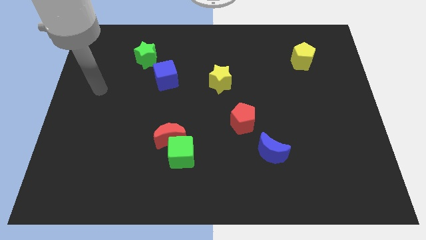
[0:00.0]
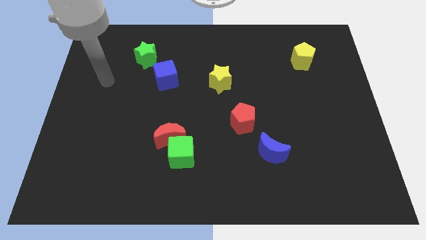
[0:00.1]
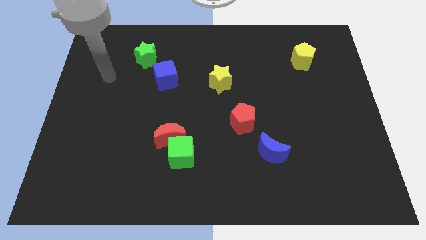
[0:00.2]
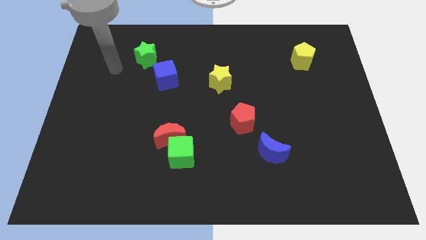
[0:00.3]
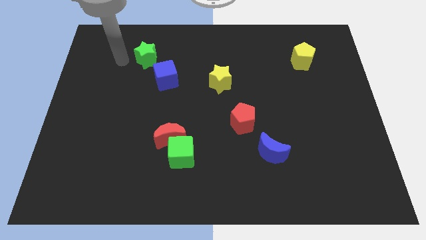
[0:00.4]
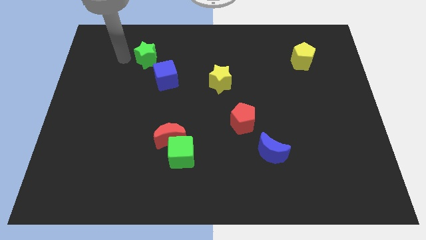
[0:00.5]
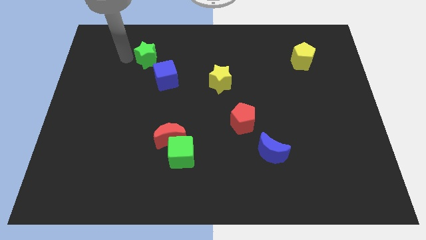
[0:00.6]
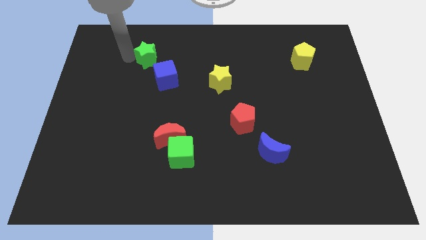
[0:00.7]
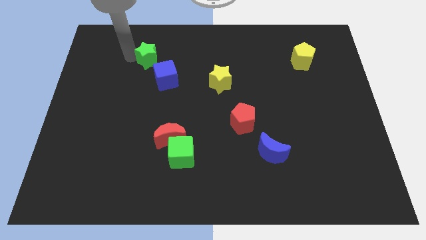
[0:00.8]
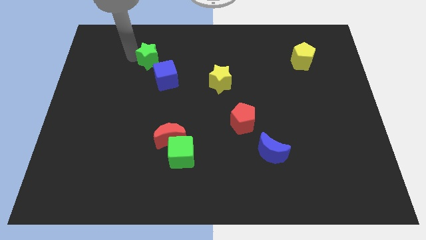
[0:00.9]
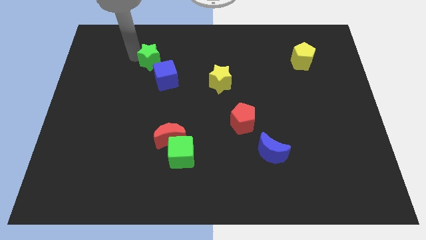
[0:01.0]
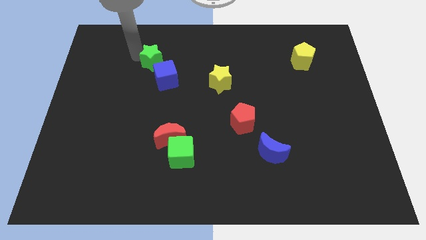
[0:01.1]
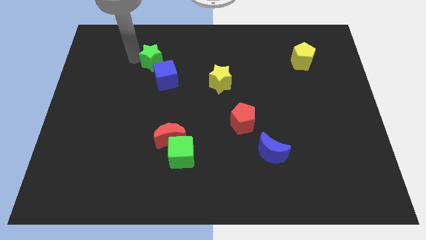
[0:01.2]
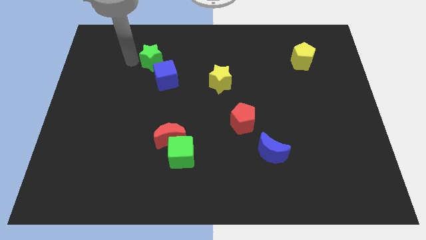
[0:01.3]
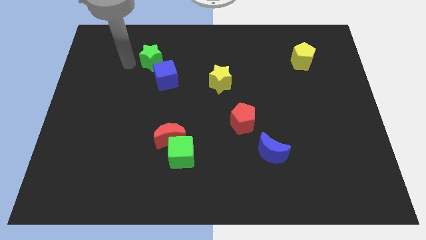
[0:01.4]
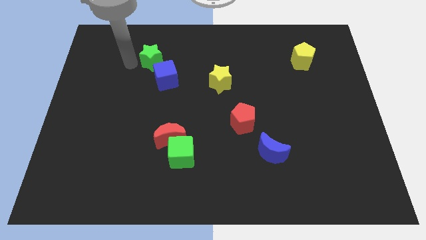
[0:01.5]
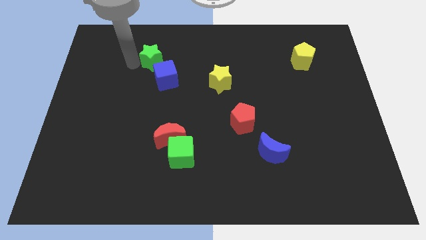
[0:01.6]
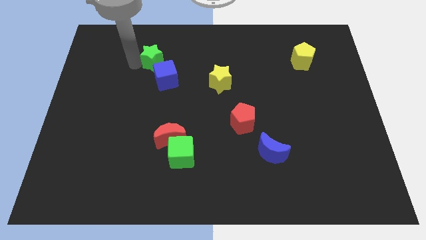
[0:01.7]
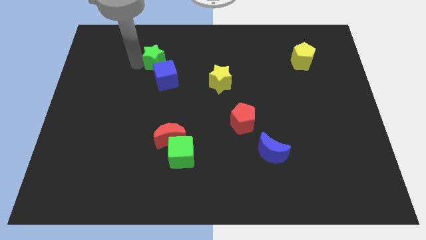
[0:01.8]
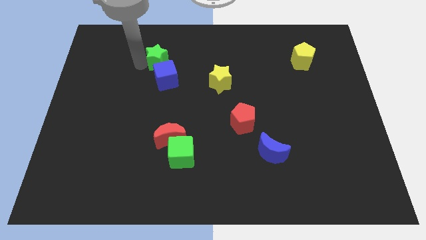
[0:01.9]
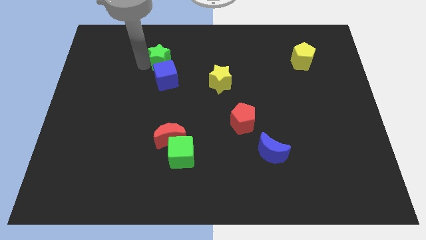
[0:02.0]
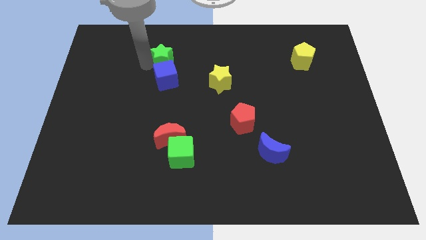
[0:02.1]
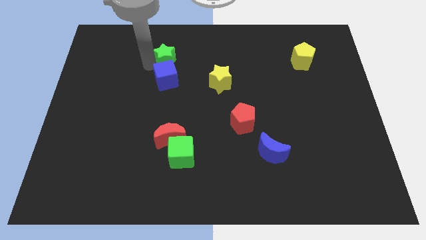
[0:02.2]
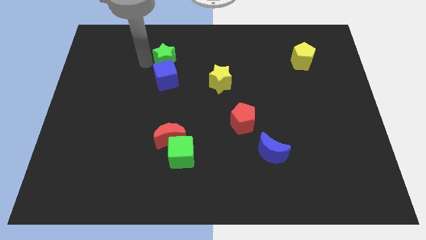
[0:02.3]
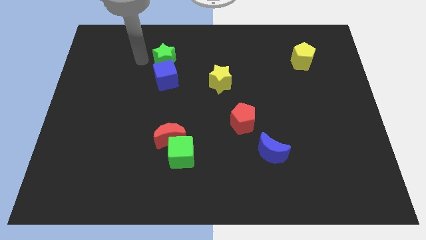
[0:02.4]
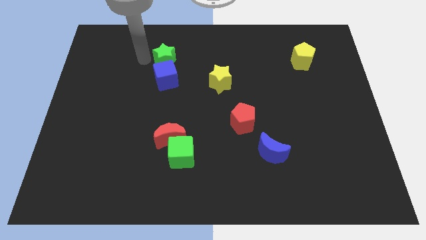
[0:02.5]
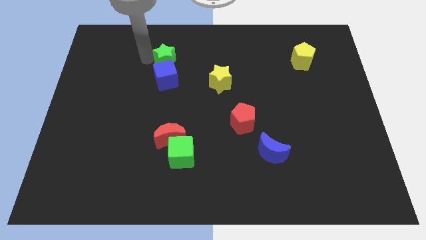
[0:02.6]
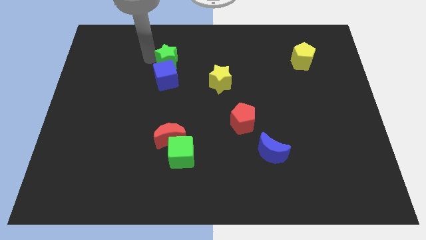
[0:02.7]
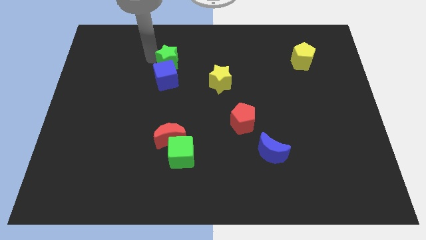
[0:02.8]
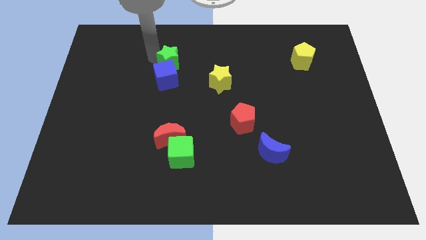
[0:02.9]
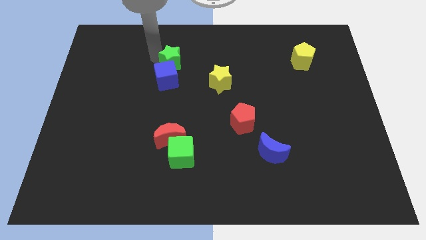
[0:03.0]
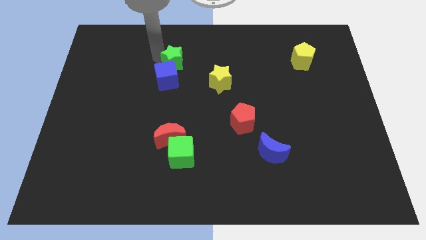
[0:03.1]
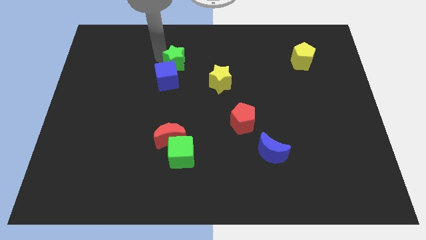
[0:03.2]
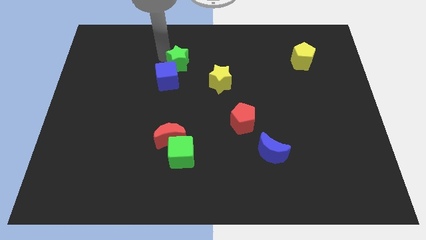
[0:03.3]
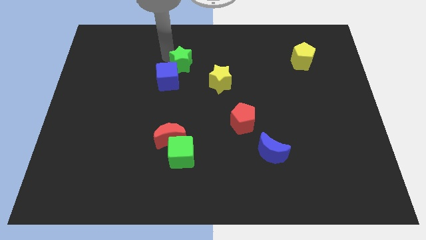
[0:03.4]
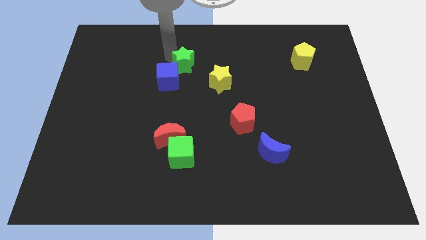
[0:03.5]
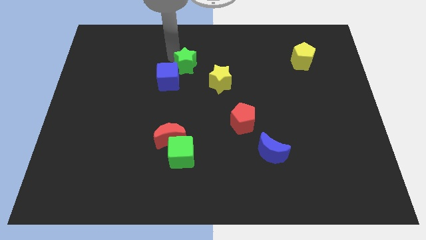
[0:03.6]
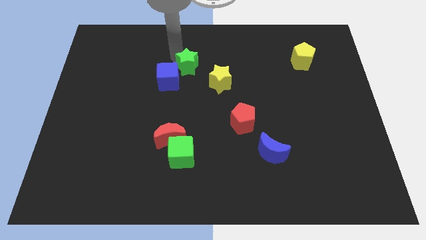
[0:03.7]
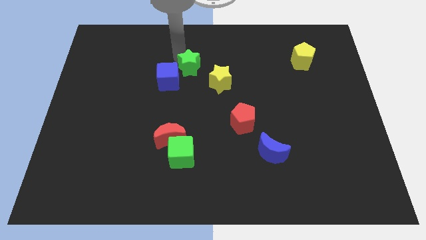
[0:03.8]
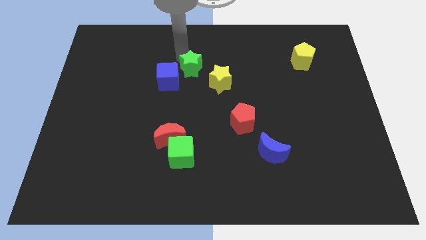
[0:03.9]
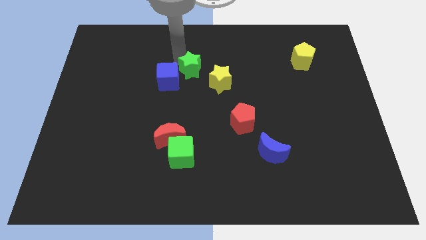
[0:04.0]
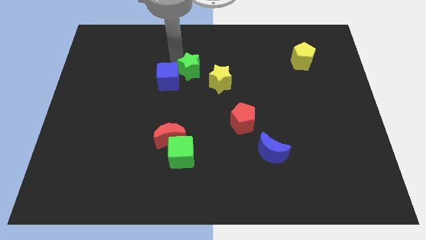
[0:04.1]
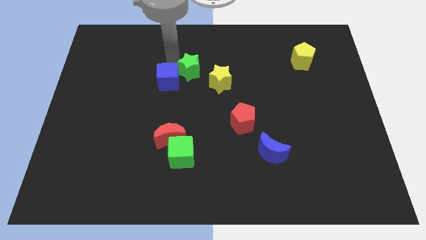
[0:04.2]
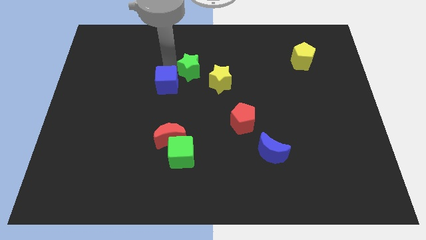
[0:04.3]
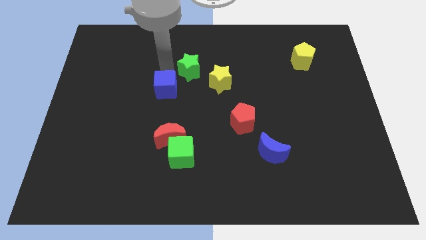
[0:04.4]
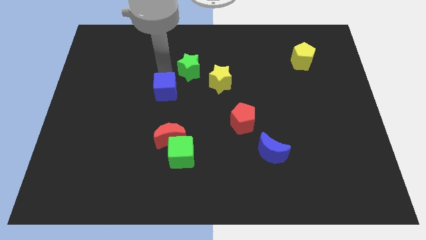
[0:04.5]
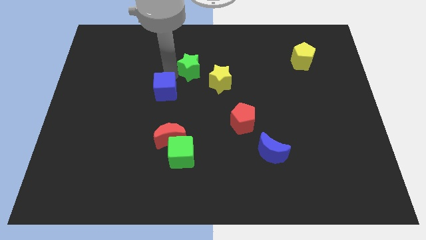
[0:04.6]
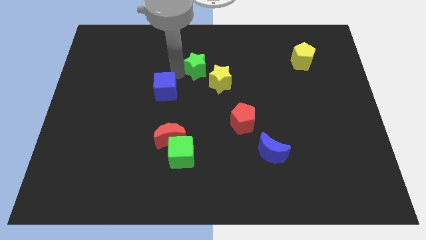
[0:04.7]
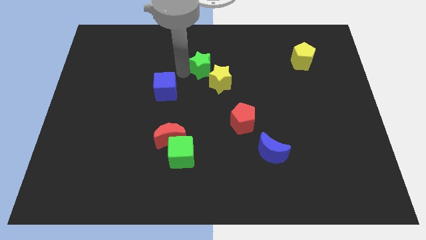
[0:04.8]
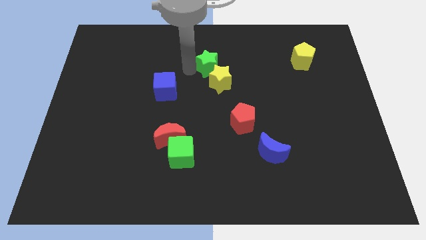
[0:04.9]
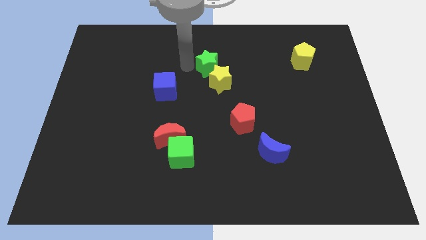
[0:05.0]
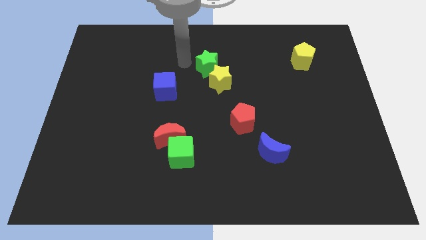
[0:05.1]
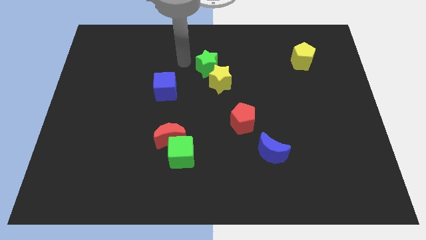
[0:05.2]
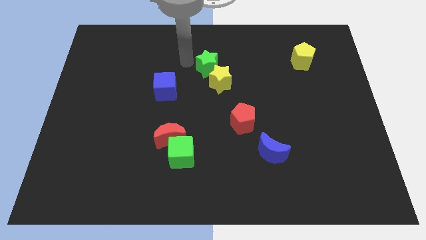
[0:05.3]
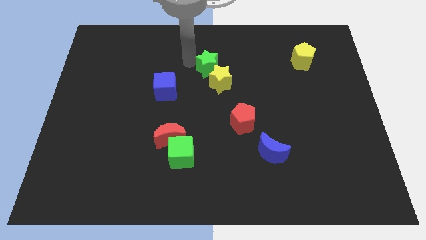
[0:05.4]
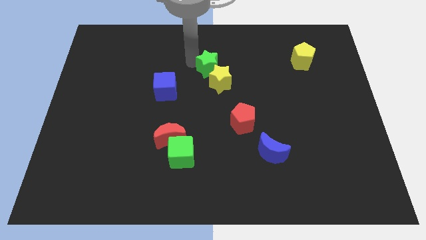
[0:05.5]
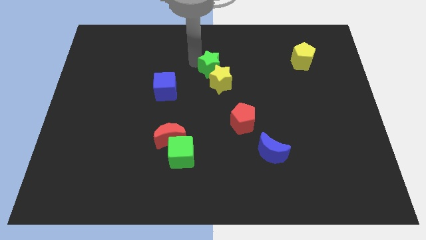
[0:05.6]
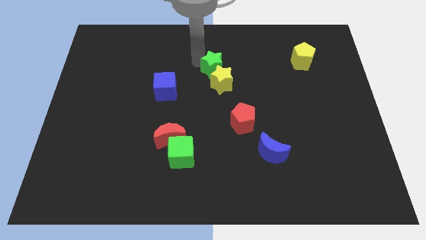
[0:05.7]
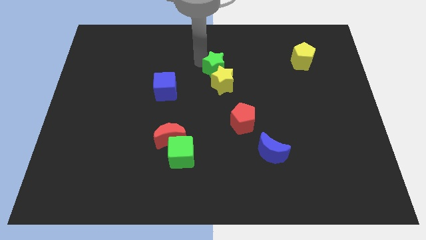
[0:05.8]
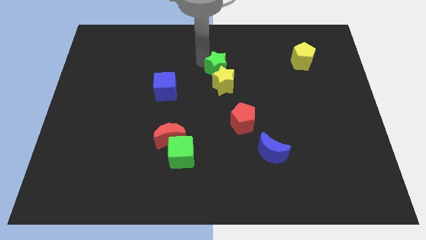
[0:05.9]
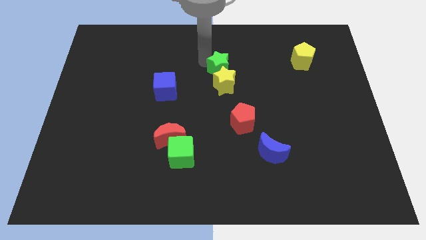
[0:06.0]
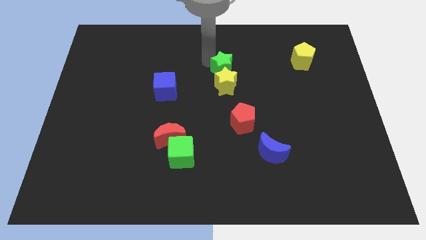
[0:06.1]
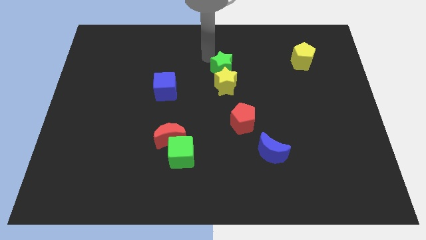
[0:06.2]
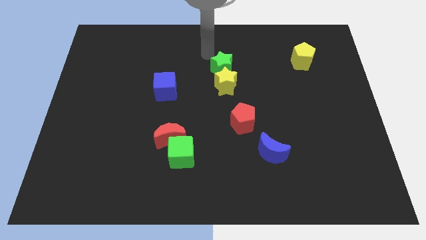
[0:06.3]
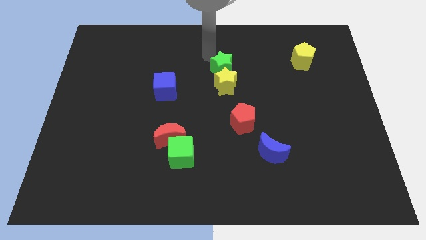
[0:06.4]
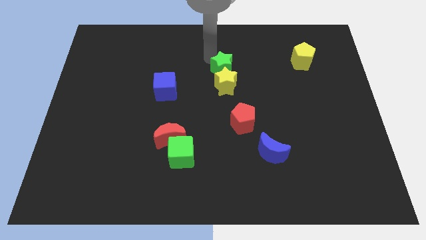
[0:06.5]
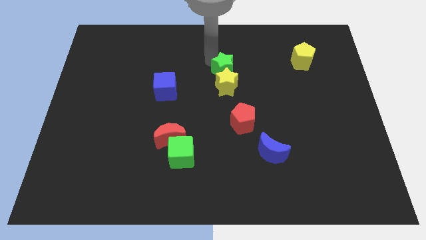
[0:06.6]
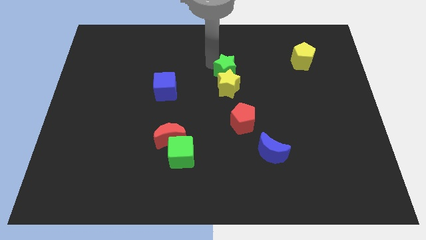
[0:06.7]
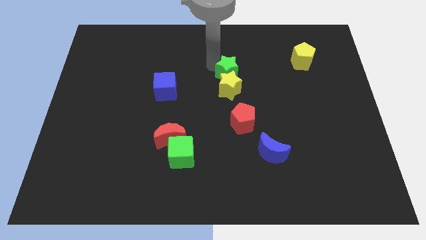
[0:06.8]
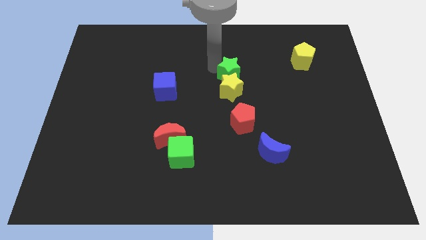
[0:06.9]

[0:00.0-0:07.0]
put the green star to the top side of the red pentagon
